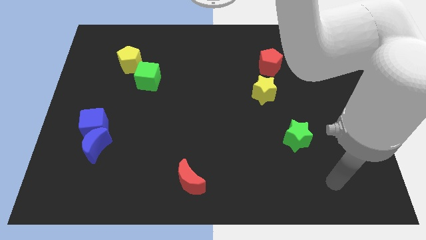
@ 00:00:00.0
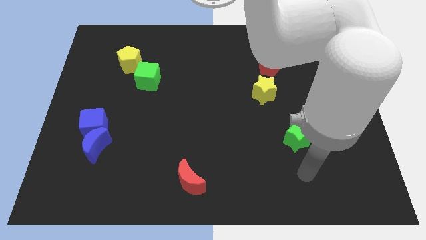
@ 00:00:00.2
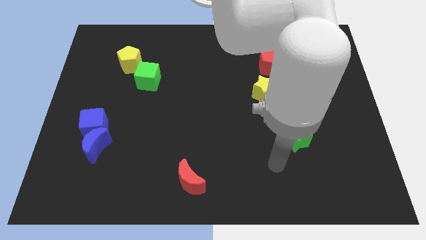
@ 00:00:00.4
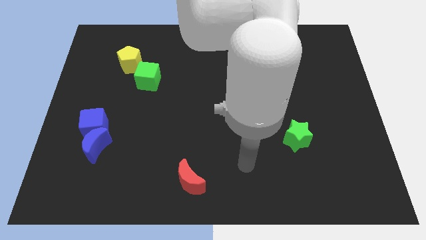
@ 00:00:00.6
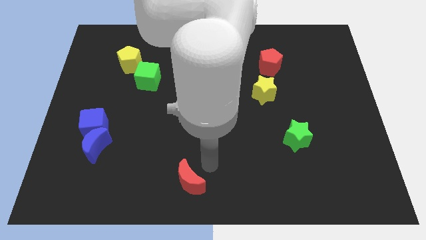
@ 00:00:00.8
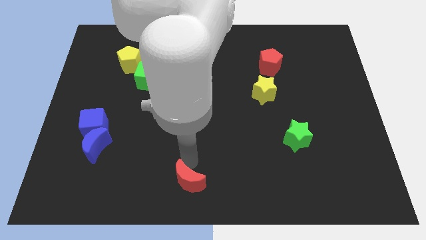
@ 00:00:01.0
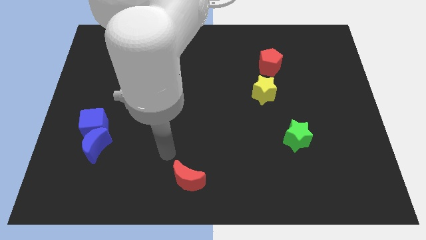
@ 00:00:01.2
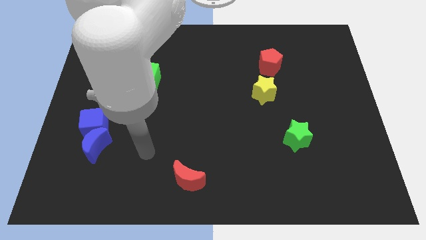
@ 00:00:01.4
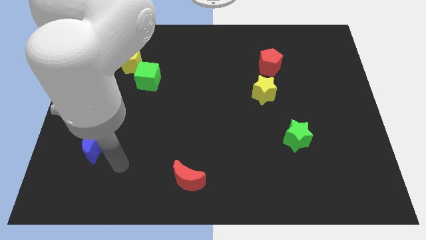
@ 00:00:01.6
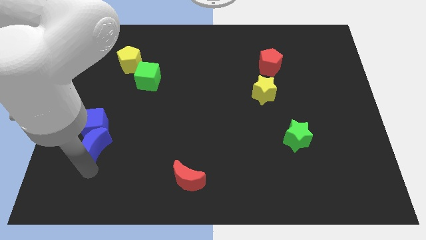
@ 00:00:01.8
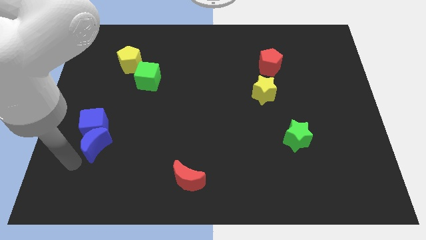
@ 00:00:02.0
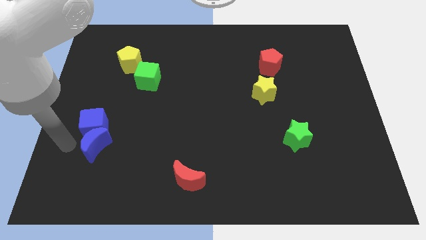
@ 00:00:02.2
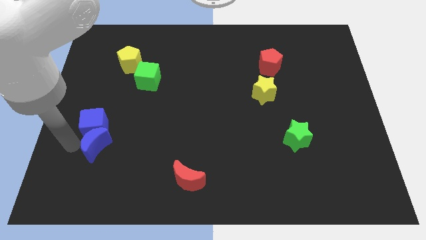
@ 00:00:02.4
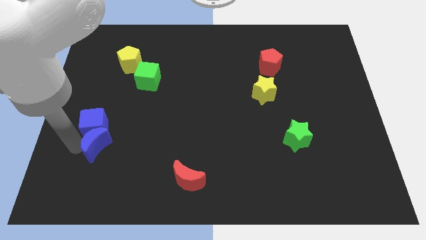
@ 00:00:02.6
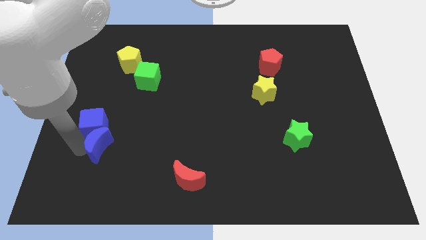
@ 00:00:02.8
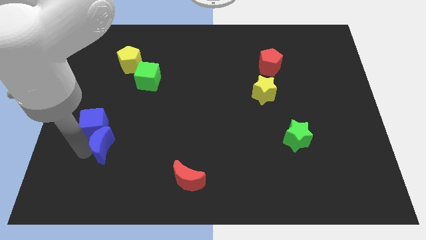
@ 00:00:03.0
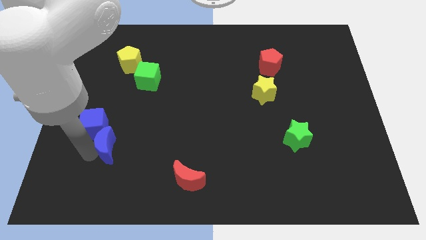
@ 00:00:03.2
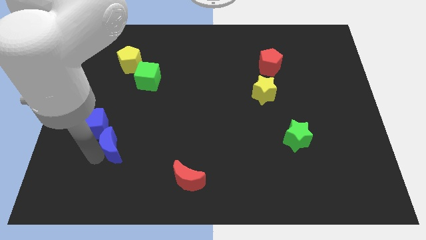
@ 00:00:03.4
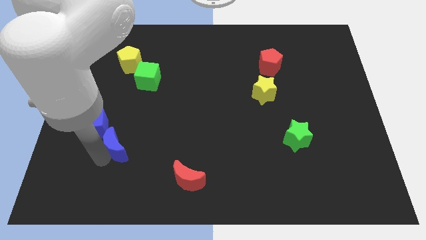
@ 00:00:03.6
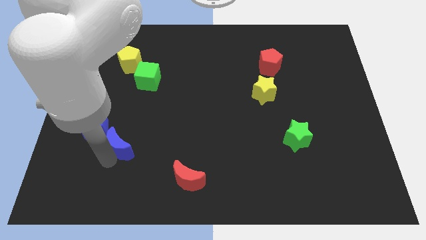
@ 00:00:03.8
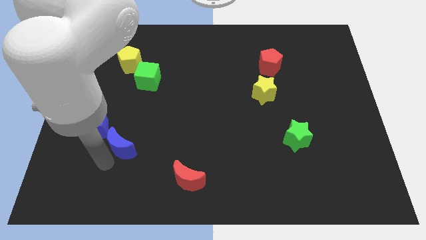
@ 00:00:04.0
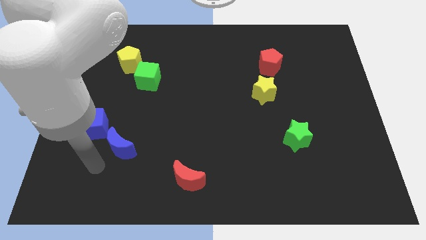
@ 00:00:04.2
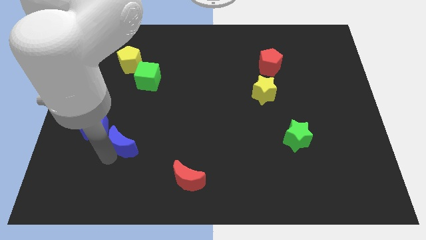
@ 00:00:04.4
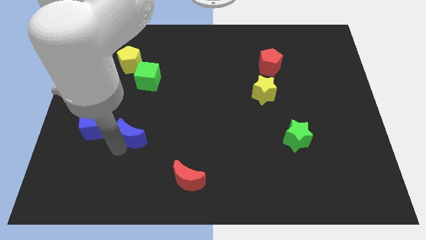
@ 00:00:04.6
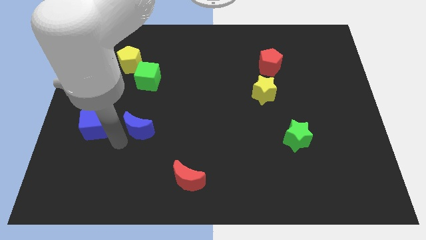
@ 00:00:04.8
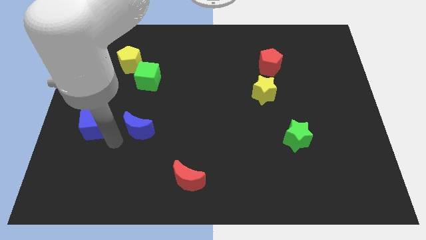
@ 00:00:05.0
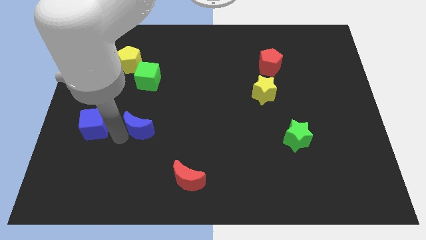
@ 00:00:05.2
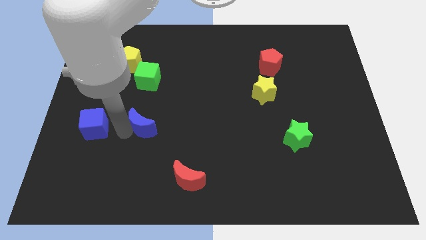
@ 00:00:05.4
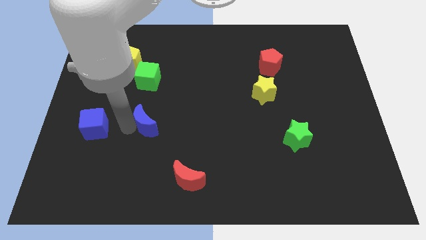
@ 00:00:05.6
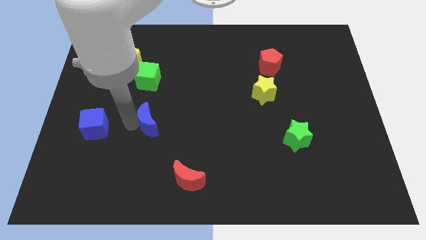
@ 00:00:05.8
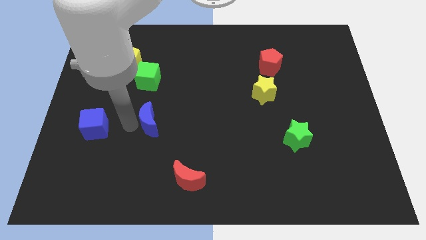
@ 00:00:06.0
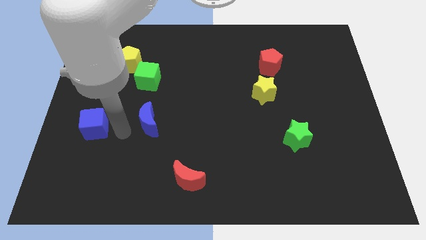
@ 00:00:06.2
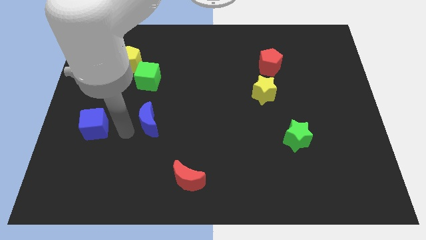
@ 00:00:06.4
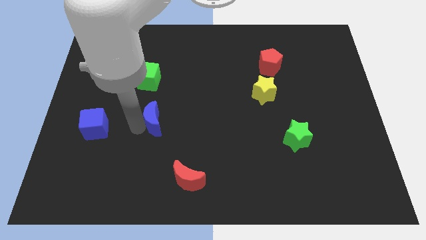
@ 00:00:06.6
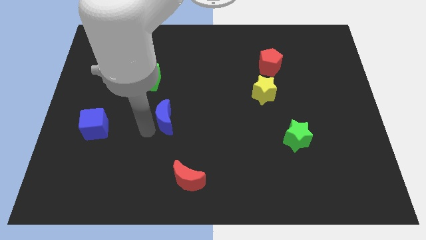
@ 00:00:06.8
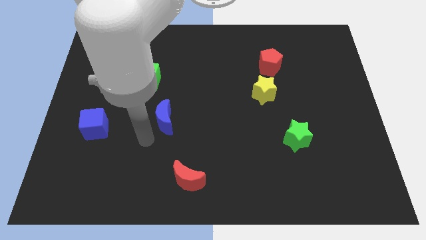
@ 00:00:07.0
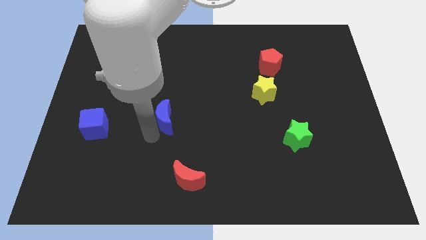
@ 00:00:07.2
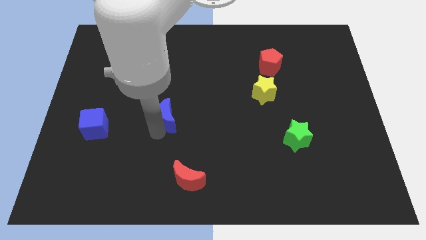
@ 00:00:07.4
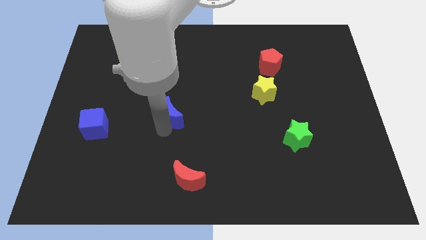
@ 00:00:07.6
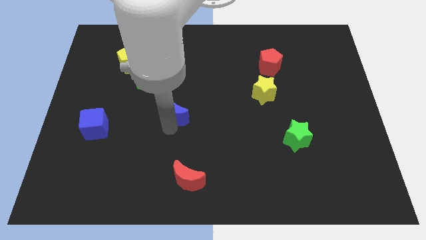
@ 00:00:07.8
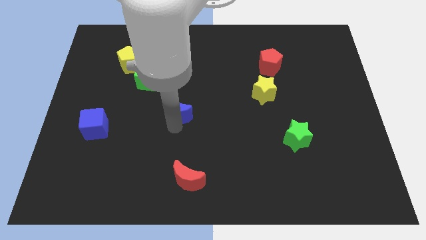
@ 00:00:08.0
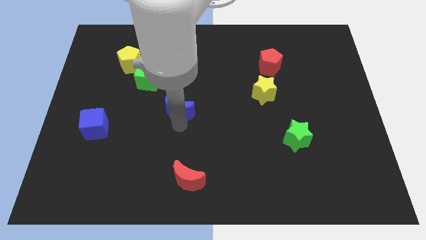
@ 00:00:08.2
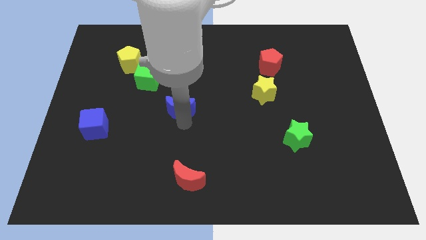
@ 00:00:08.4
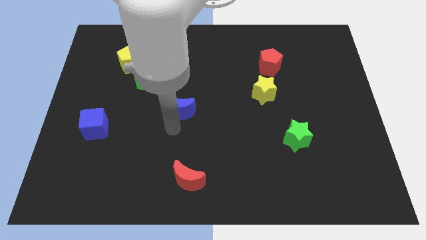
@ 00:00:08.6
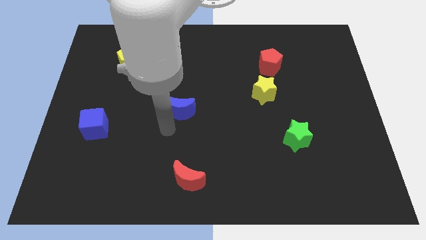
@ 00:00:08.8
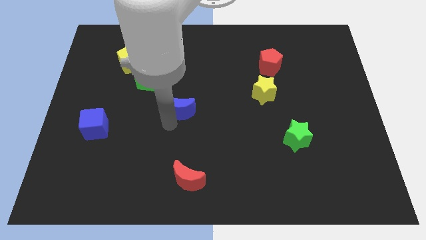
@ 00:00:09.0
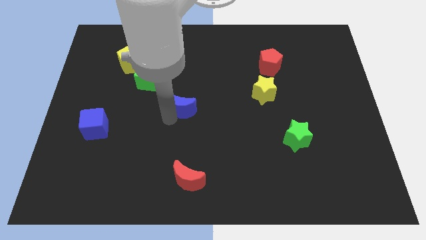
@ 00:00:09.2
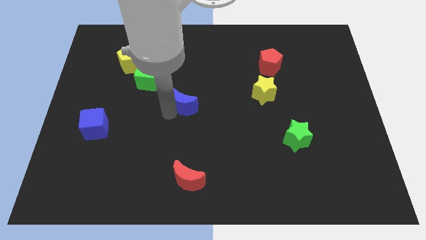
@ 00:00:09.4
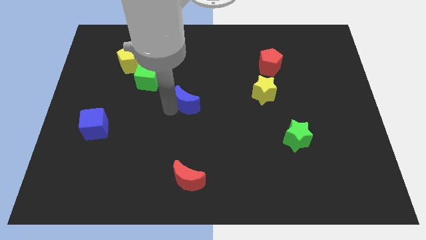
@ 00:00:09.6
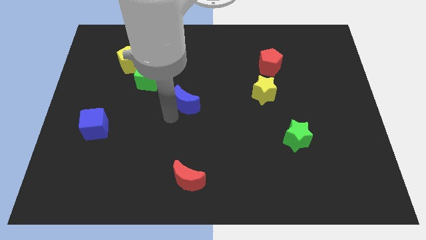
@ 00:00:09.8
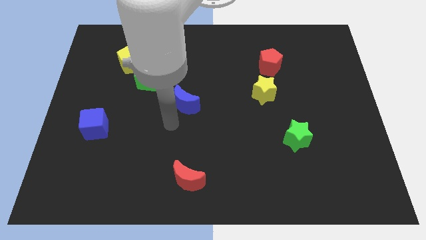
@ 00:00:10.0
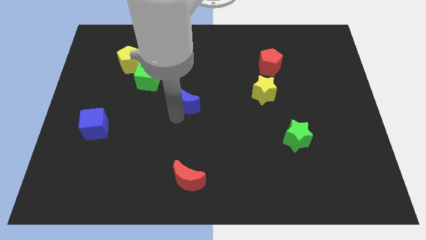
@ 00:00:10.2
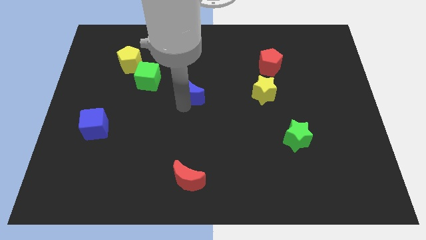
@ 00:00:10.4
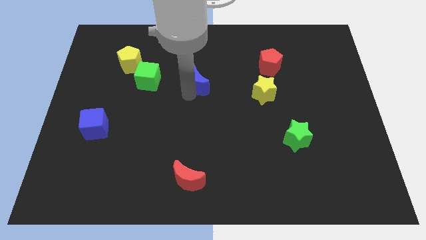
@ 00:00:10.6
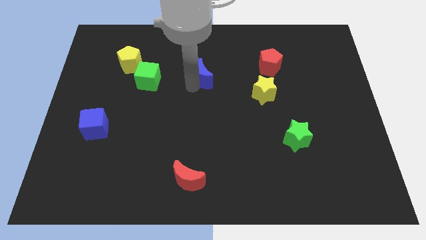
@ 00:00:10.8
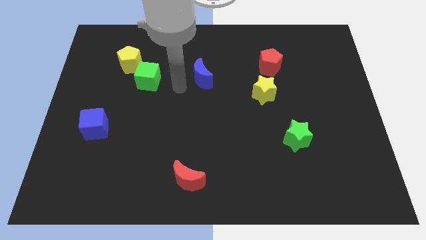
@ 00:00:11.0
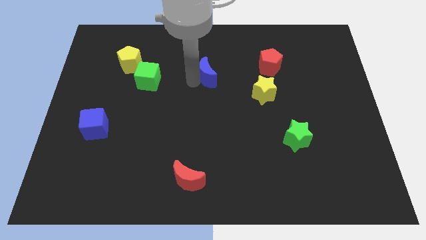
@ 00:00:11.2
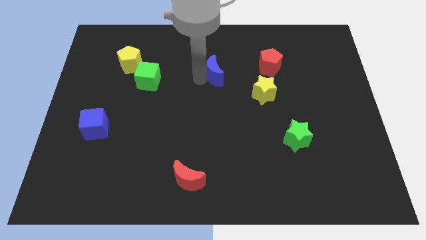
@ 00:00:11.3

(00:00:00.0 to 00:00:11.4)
push the blue moon just left of the red pentagon

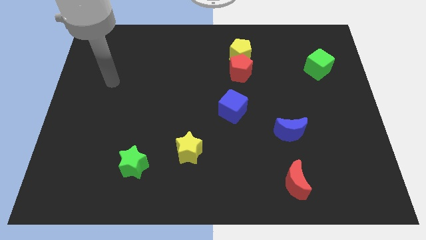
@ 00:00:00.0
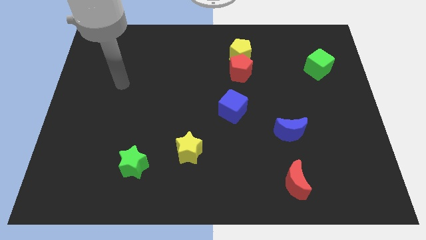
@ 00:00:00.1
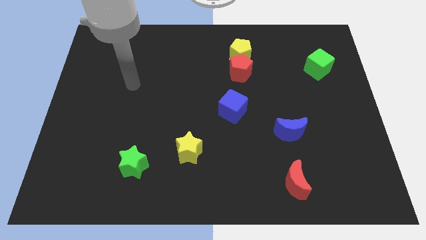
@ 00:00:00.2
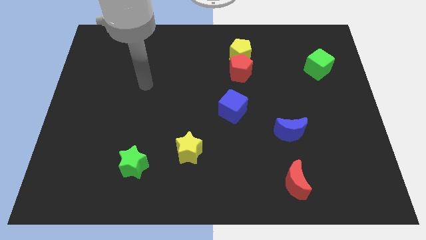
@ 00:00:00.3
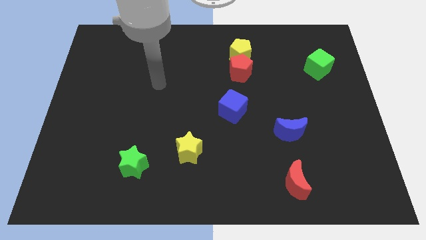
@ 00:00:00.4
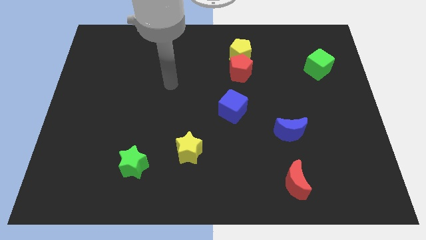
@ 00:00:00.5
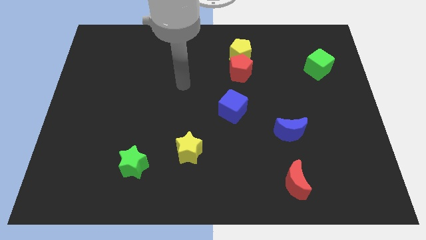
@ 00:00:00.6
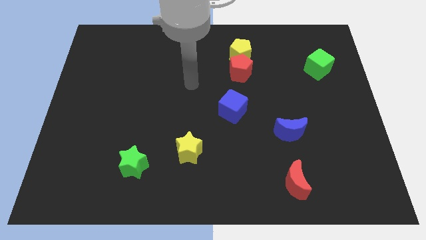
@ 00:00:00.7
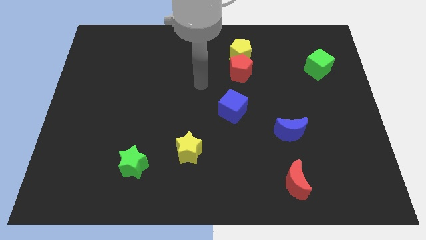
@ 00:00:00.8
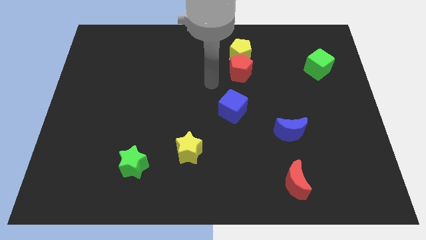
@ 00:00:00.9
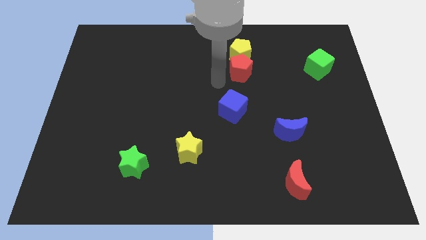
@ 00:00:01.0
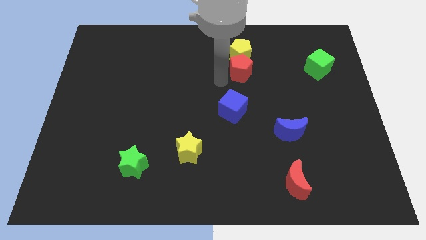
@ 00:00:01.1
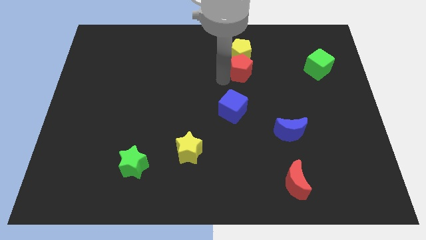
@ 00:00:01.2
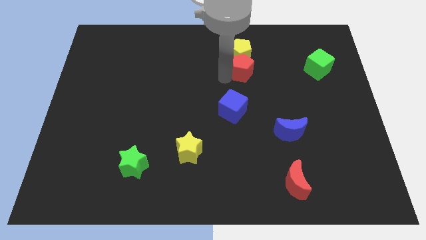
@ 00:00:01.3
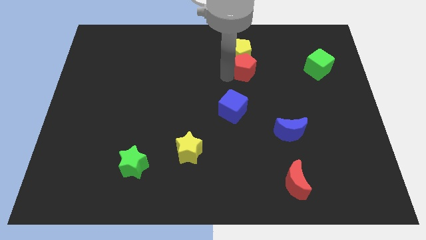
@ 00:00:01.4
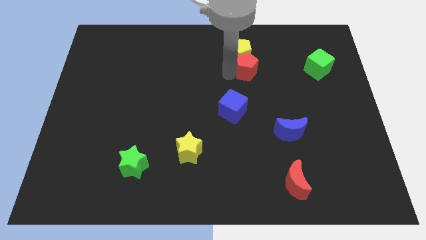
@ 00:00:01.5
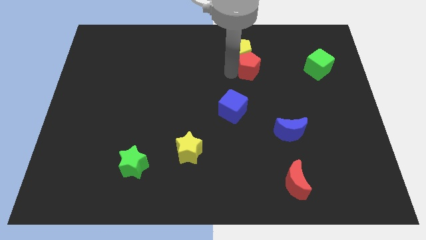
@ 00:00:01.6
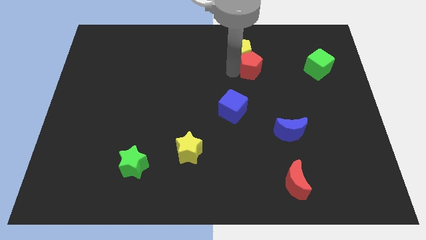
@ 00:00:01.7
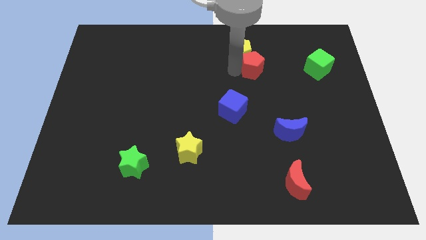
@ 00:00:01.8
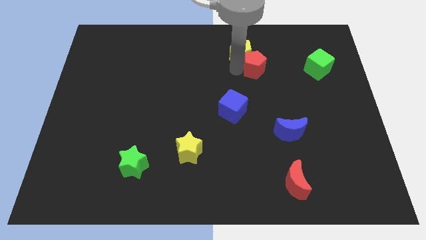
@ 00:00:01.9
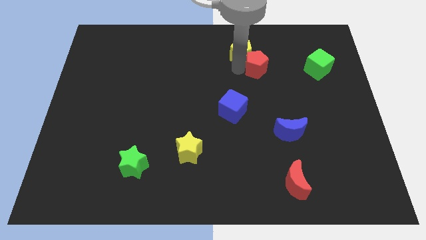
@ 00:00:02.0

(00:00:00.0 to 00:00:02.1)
put the red pentagon just right of the yellow pentagon
